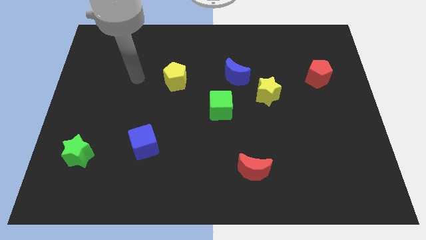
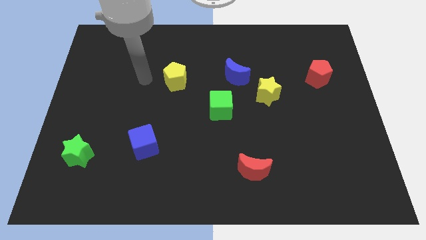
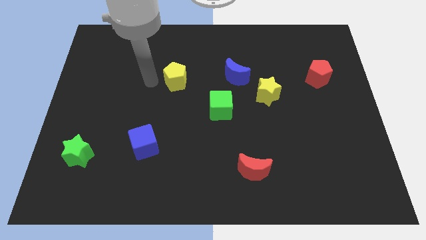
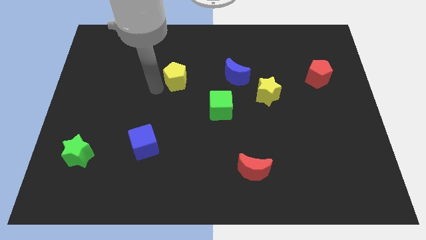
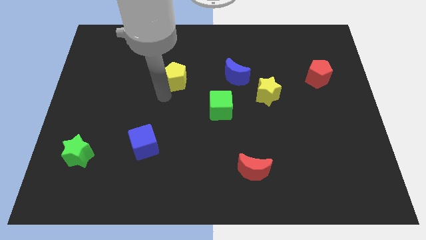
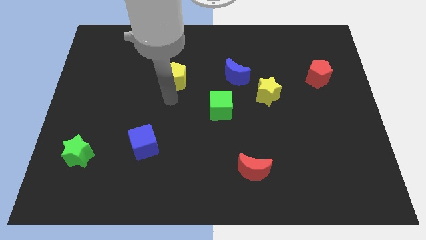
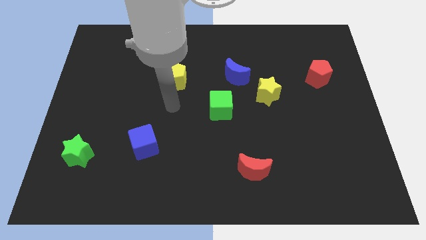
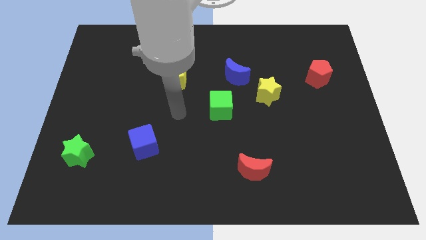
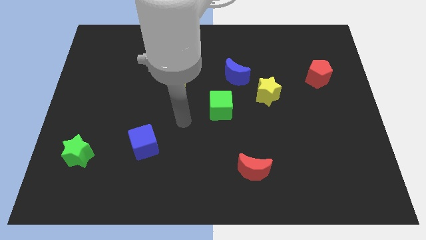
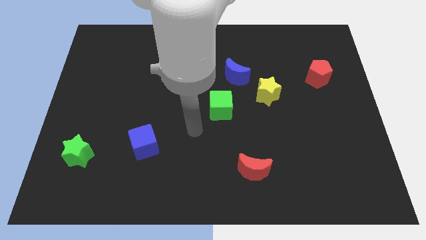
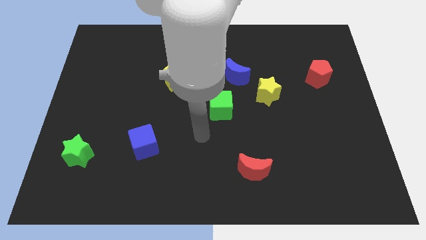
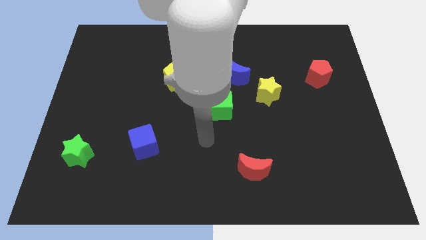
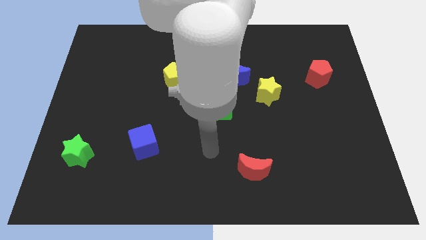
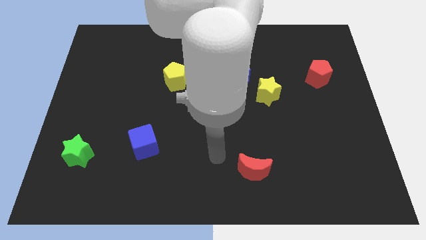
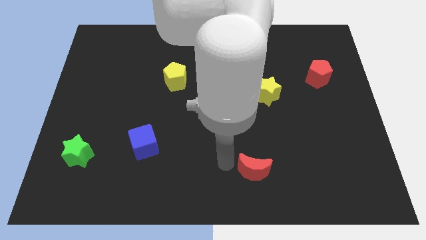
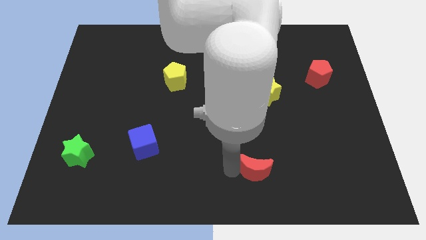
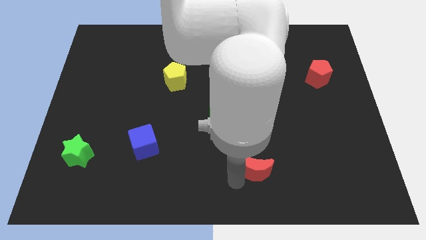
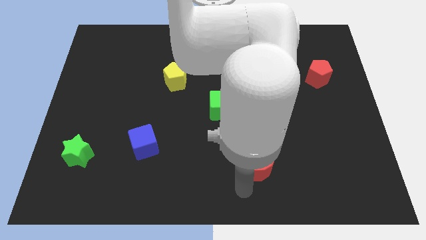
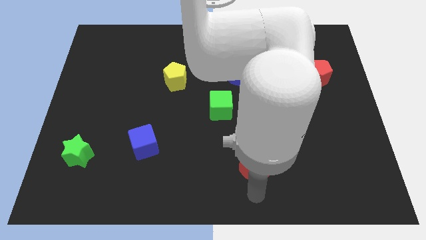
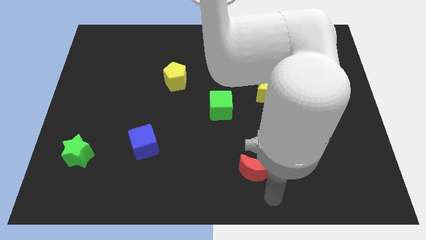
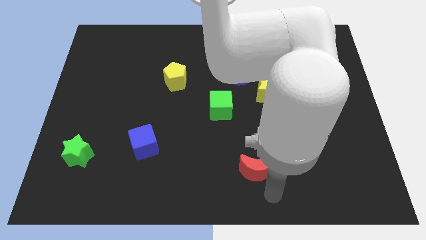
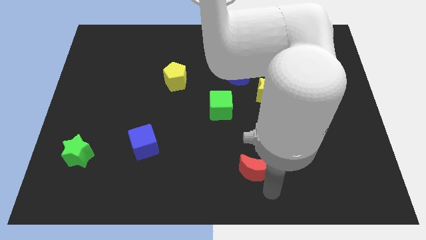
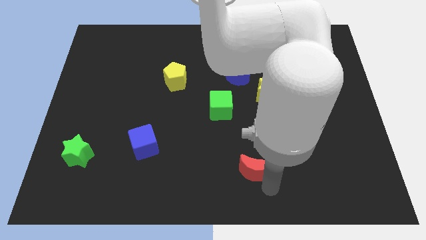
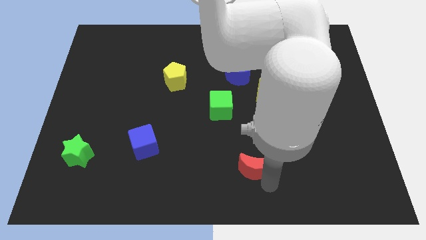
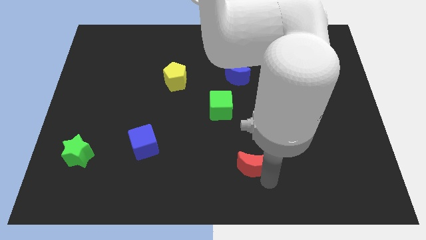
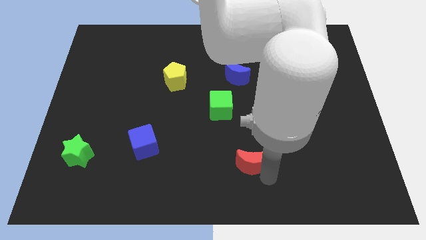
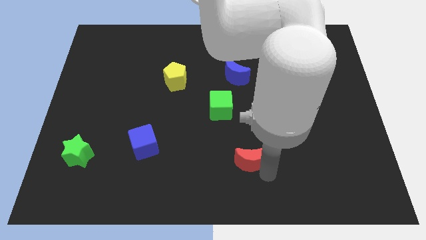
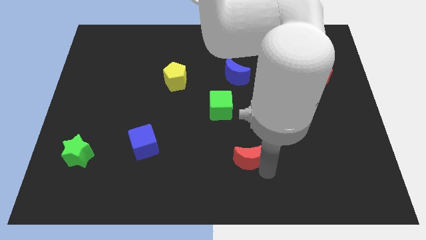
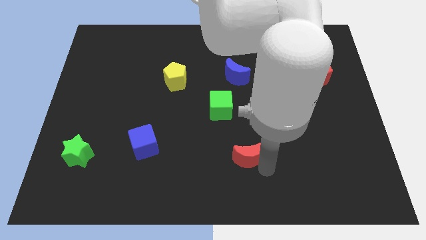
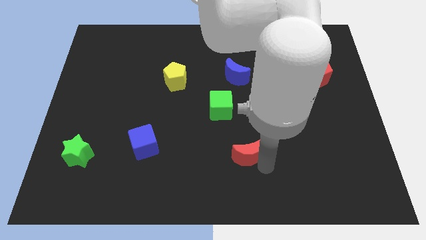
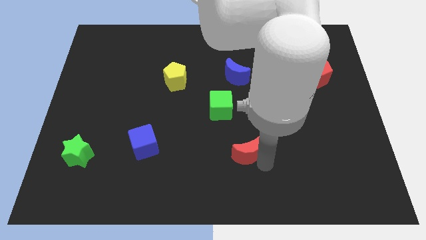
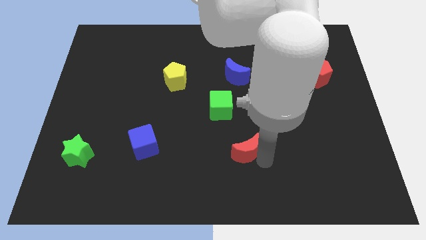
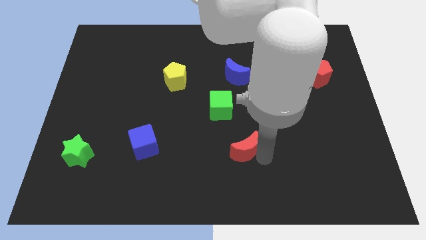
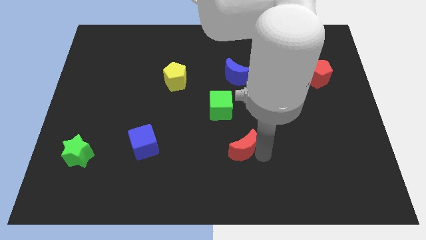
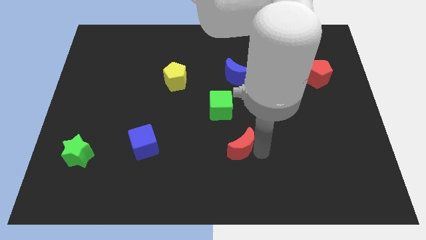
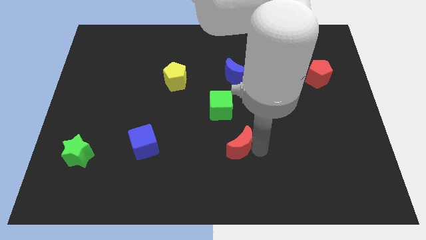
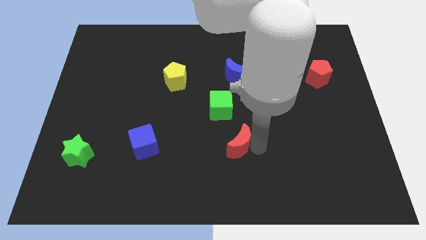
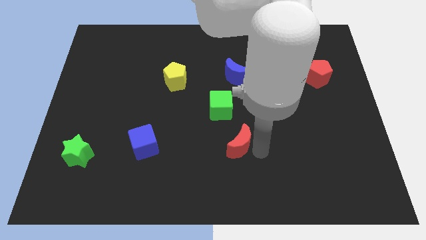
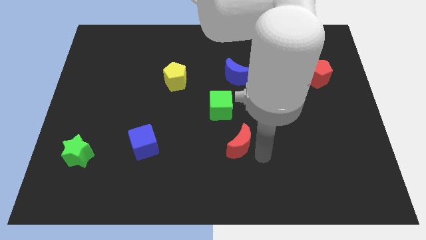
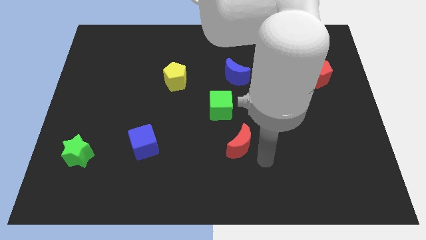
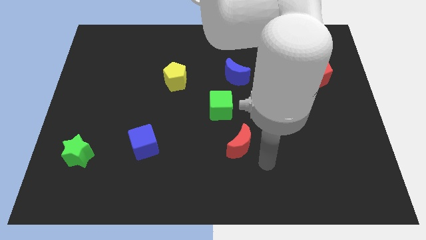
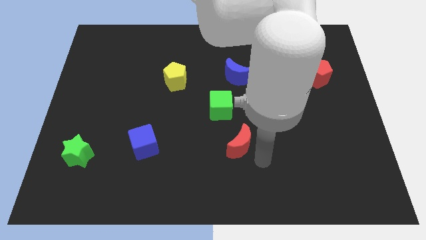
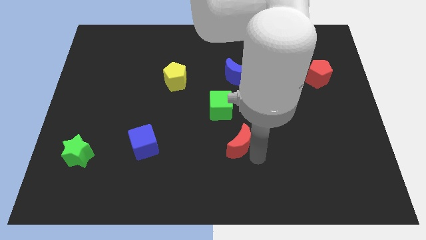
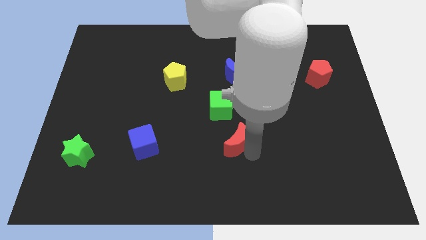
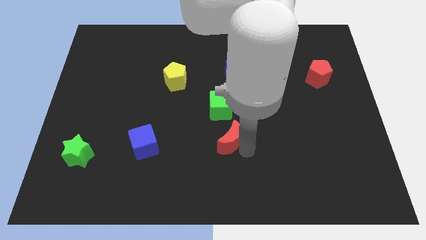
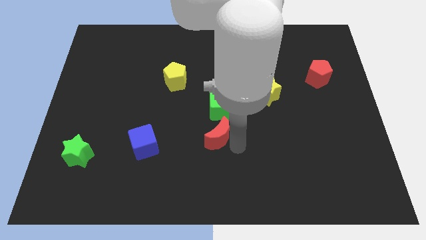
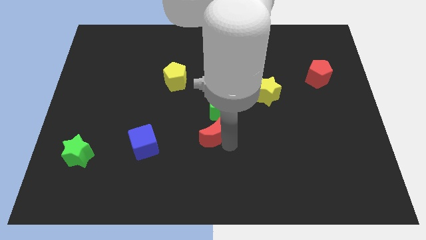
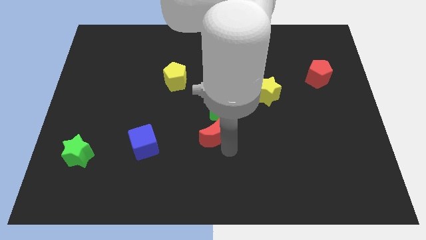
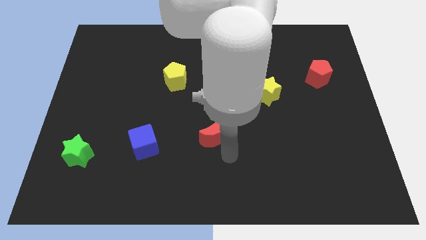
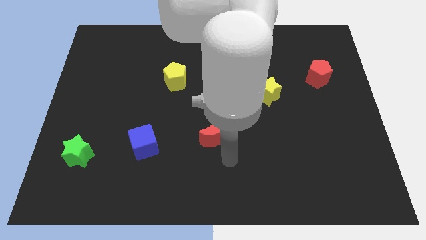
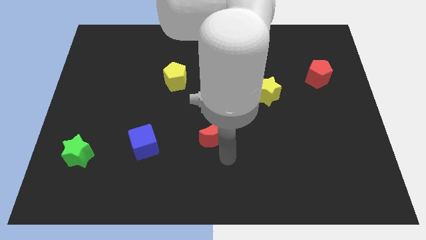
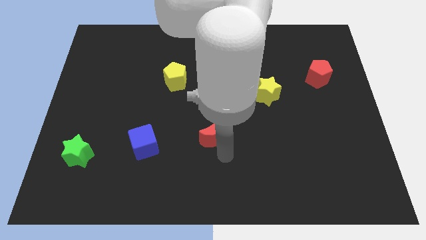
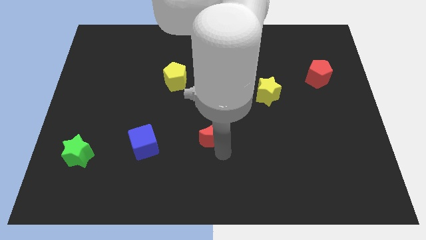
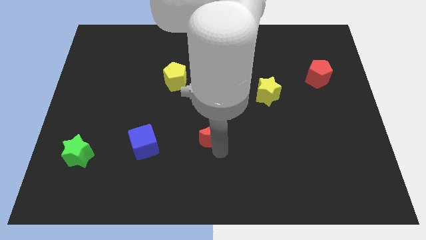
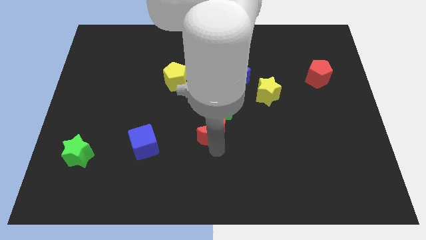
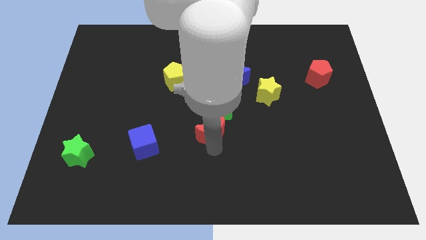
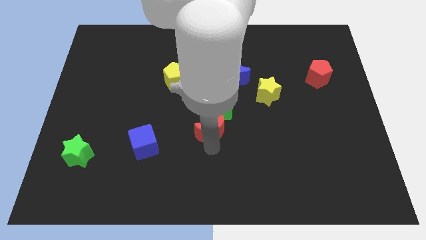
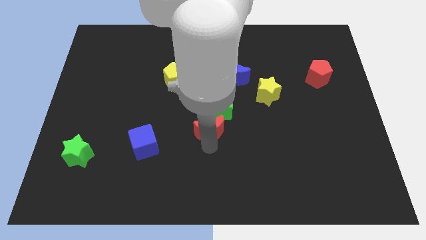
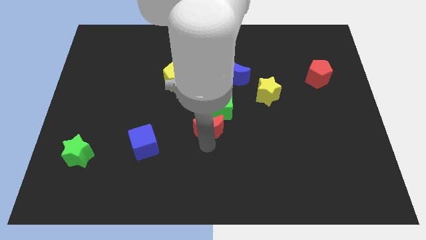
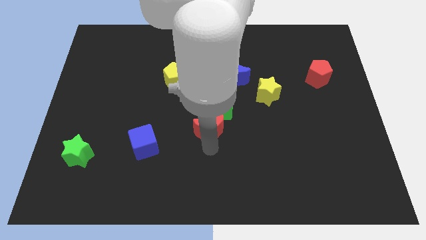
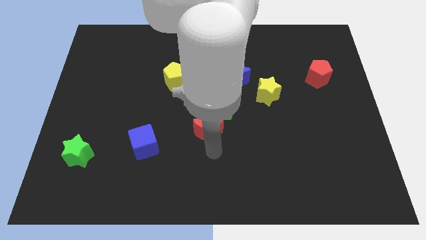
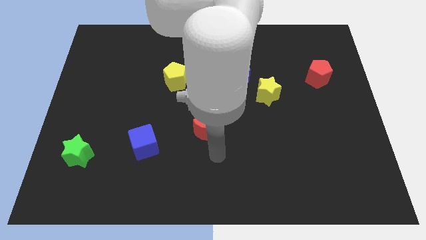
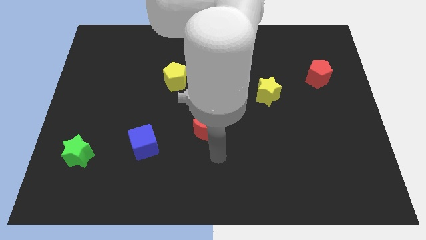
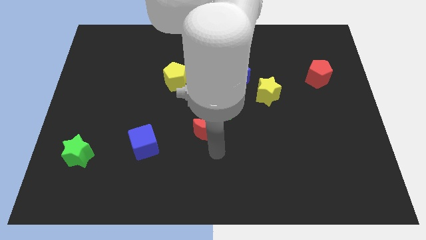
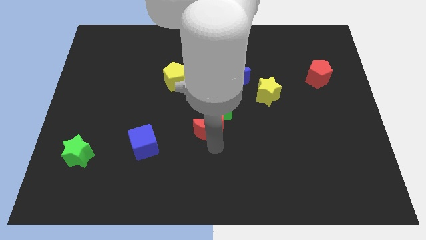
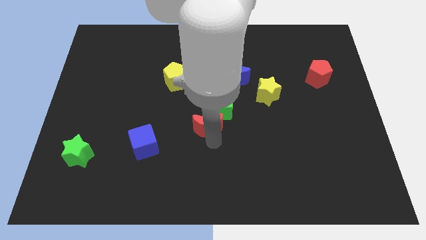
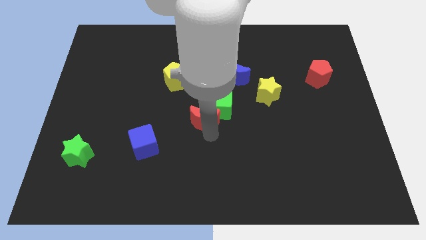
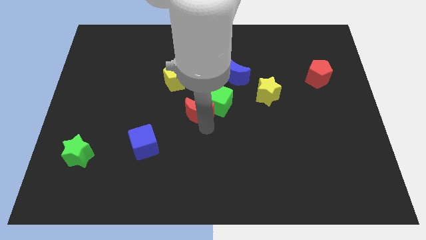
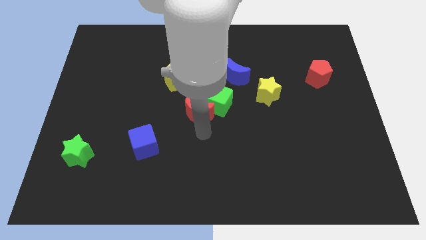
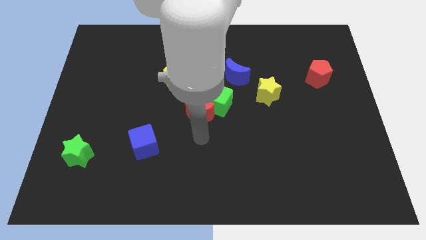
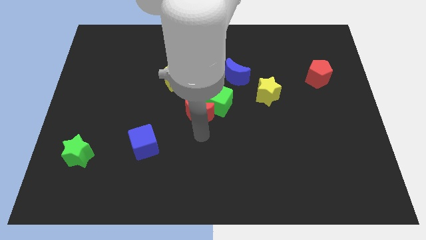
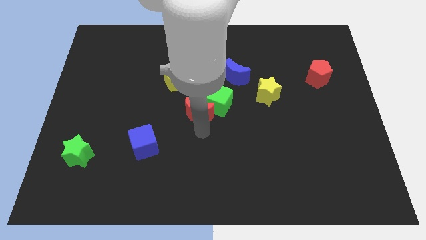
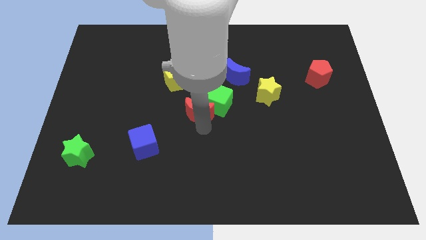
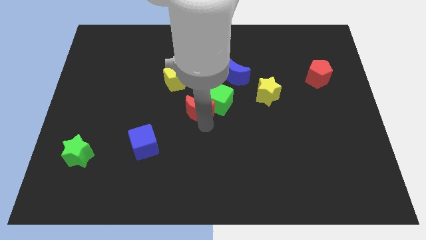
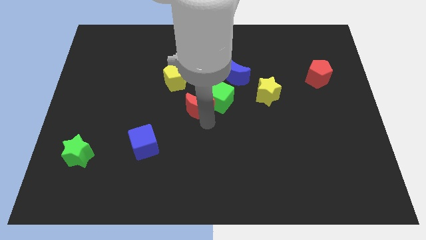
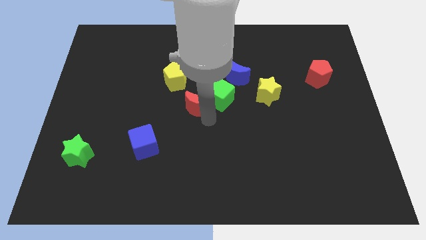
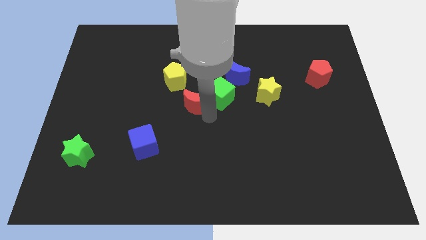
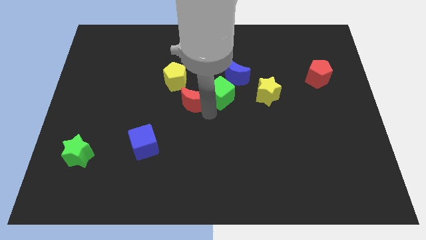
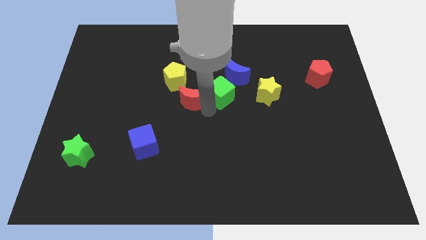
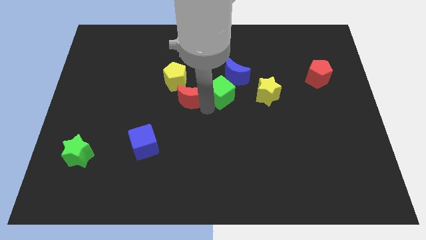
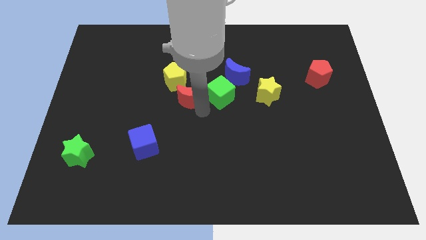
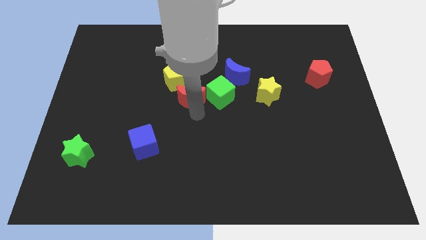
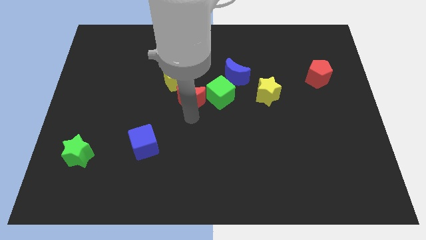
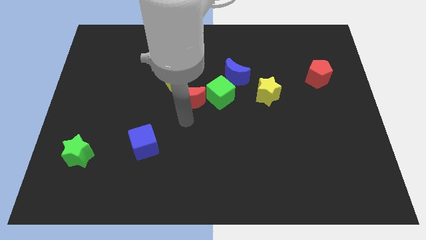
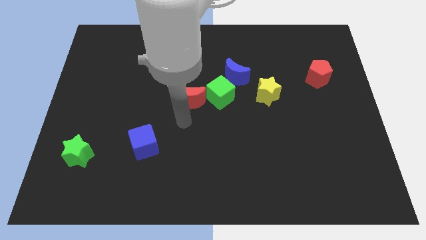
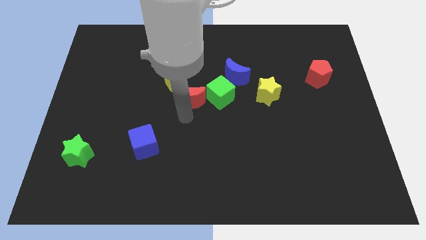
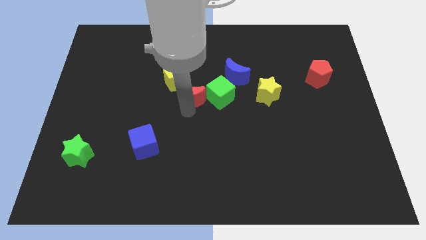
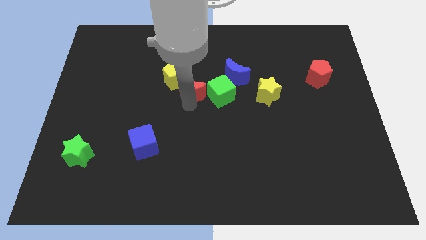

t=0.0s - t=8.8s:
put the red moon to the top left side of the green cube
